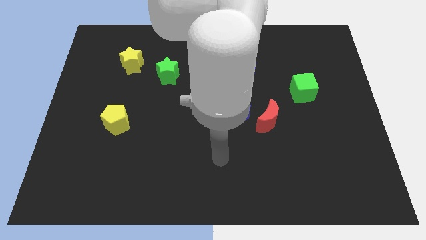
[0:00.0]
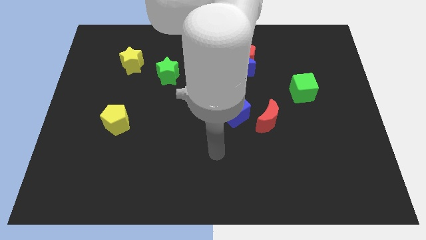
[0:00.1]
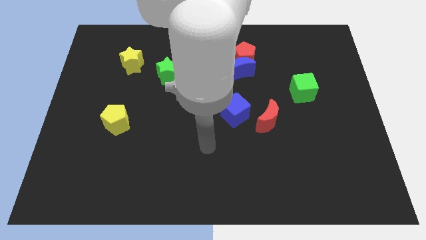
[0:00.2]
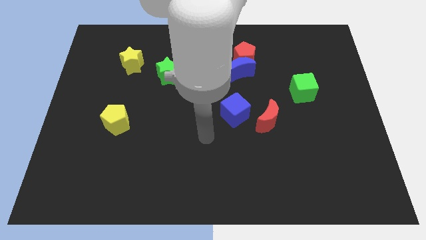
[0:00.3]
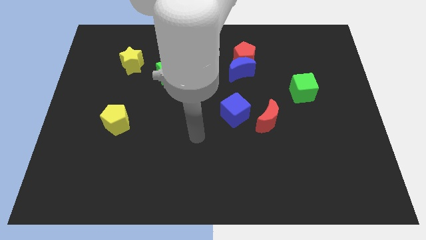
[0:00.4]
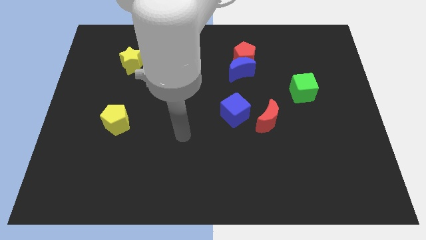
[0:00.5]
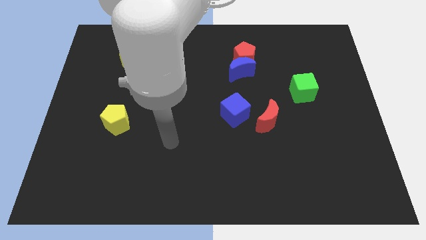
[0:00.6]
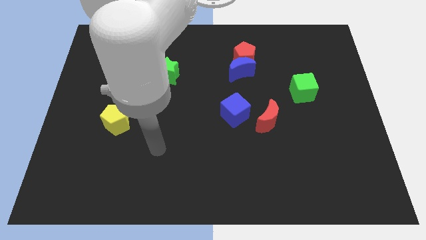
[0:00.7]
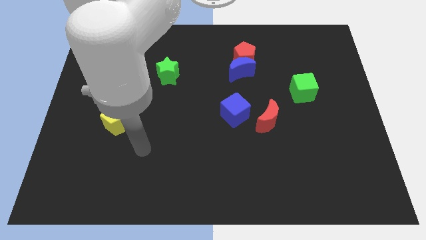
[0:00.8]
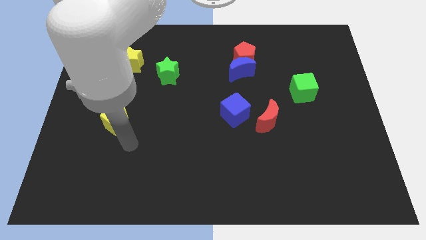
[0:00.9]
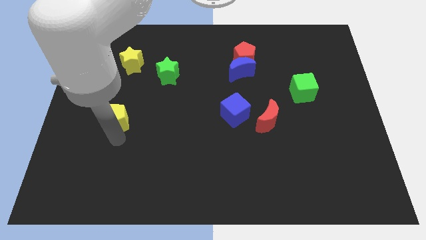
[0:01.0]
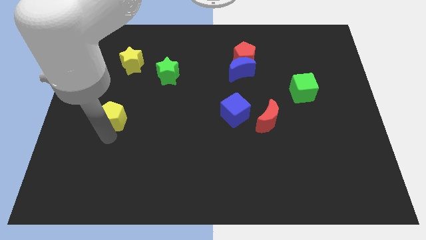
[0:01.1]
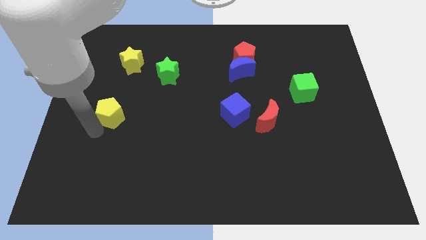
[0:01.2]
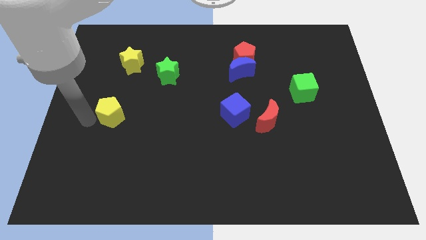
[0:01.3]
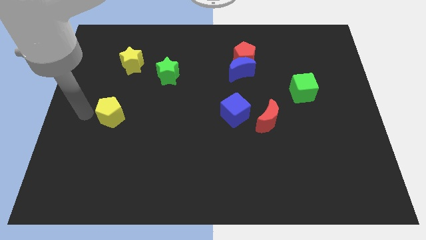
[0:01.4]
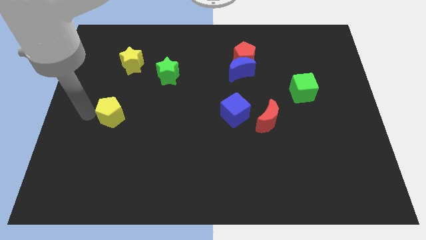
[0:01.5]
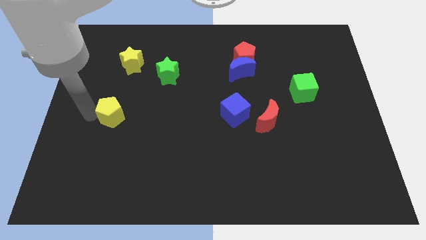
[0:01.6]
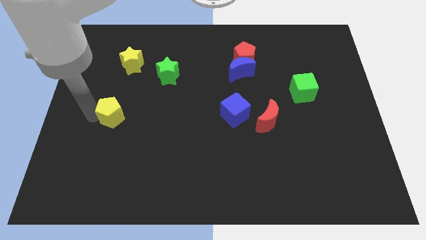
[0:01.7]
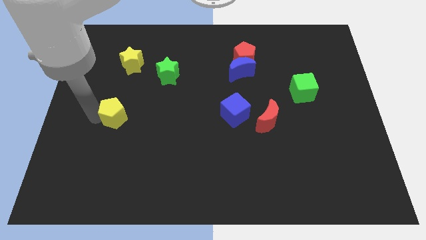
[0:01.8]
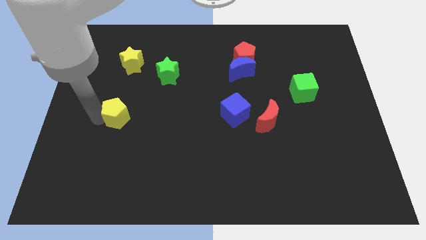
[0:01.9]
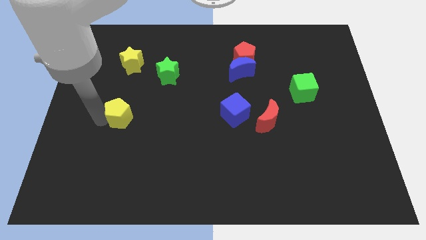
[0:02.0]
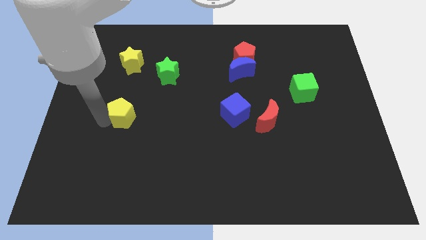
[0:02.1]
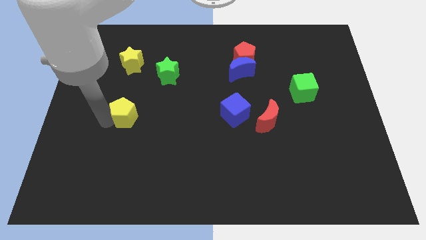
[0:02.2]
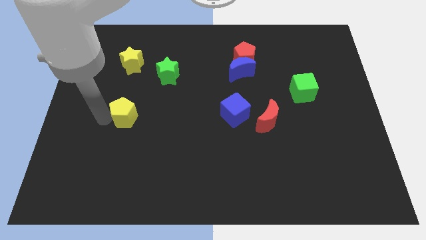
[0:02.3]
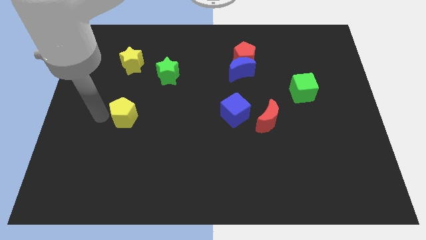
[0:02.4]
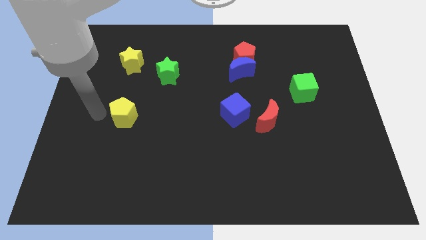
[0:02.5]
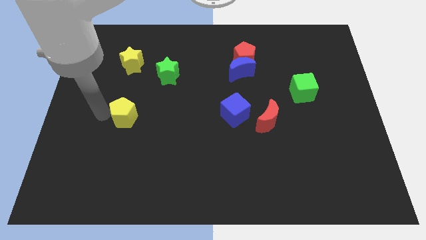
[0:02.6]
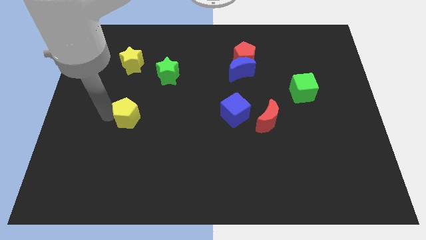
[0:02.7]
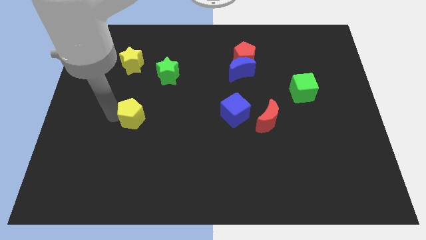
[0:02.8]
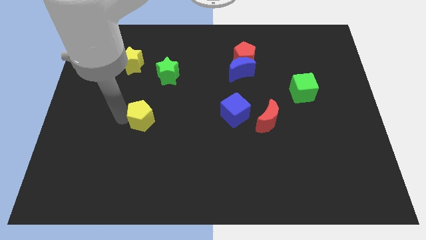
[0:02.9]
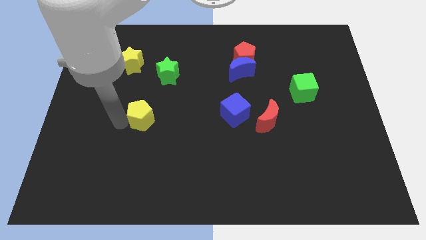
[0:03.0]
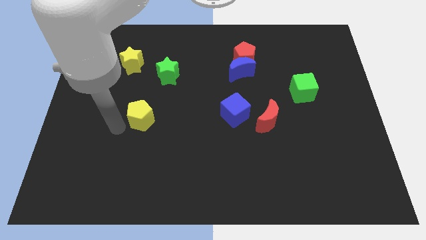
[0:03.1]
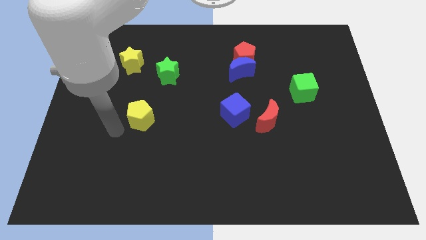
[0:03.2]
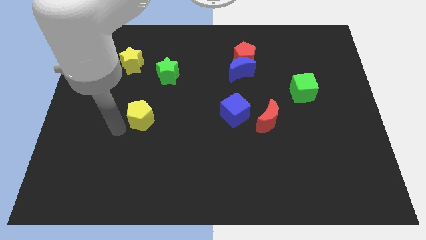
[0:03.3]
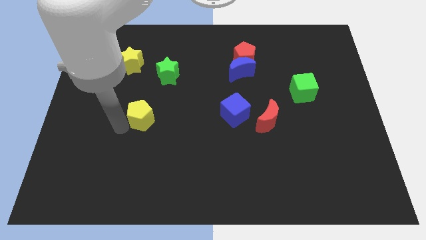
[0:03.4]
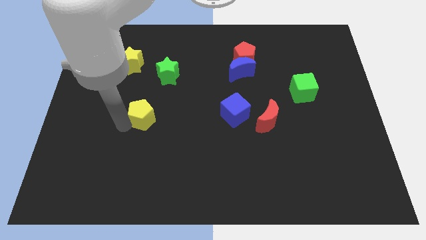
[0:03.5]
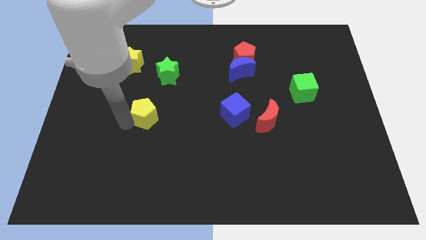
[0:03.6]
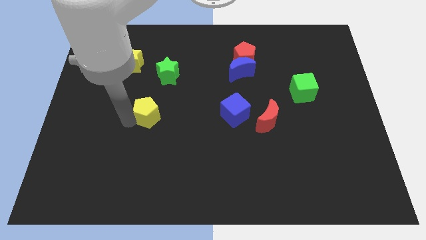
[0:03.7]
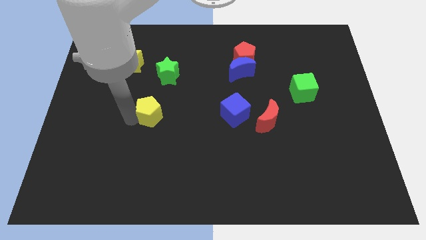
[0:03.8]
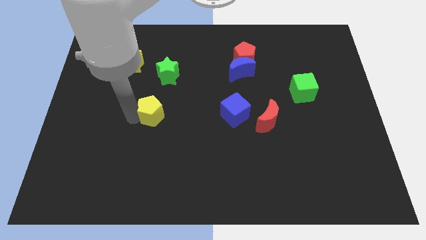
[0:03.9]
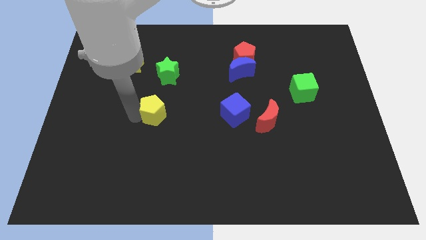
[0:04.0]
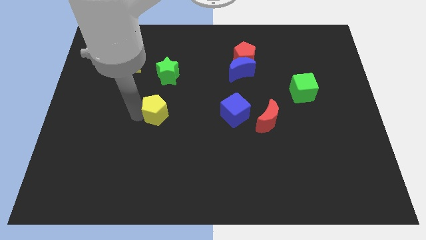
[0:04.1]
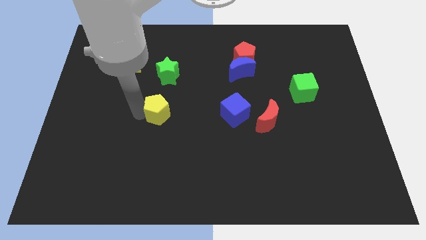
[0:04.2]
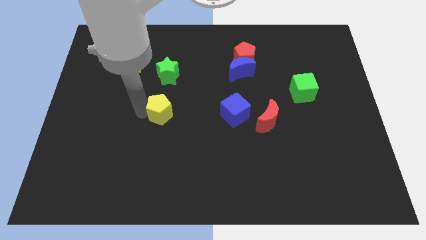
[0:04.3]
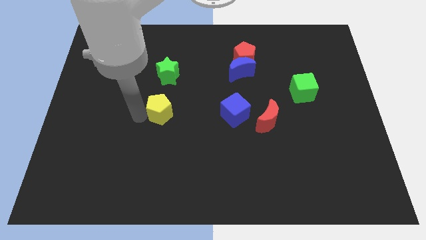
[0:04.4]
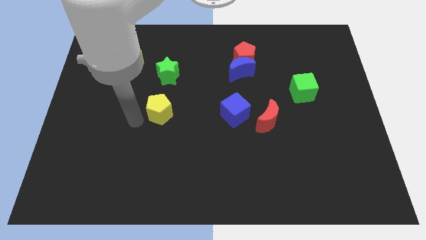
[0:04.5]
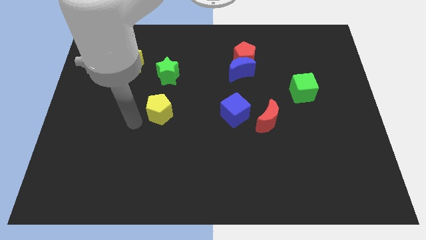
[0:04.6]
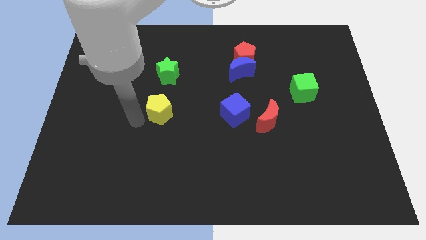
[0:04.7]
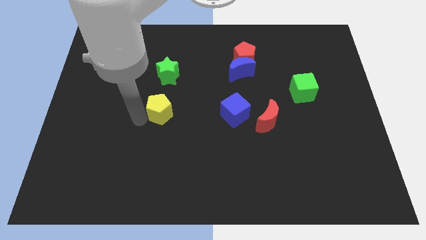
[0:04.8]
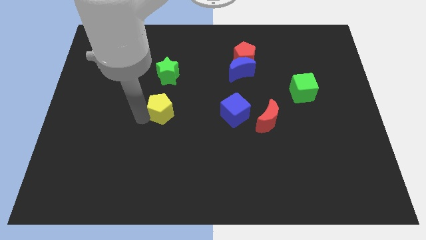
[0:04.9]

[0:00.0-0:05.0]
push the yellow pentagon to the middle

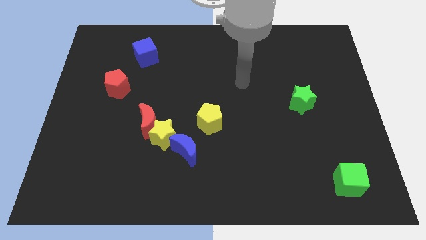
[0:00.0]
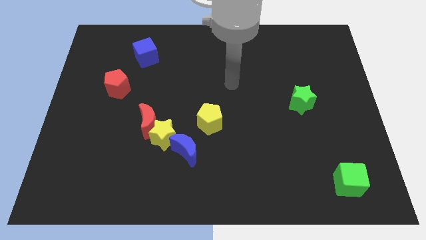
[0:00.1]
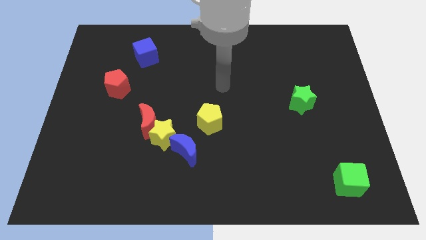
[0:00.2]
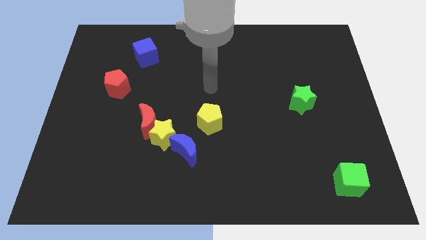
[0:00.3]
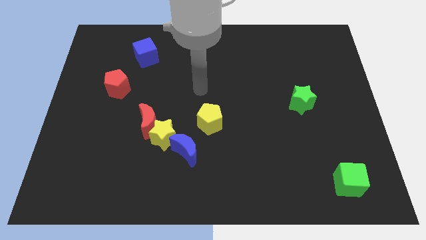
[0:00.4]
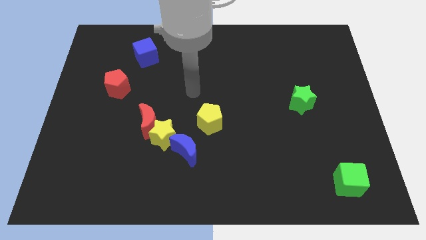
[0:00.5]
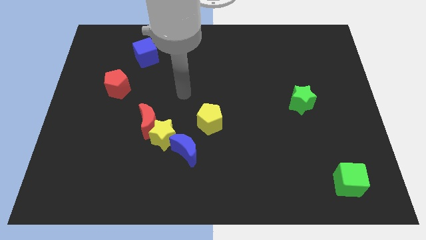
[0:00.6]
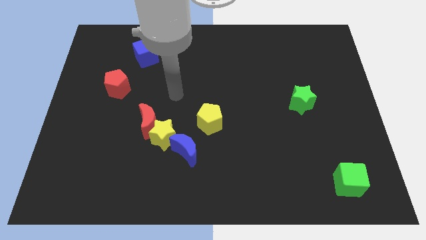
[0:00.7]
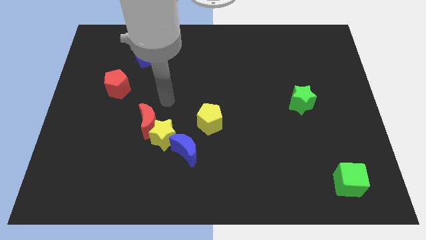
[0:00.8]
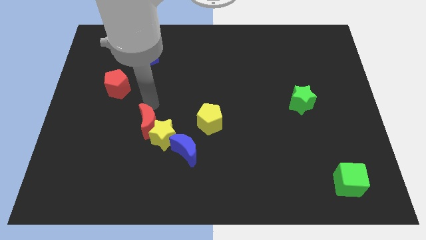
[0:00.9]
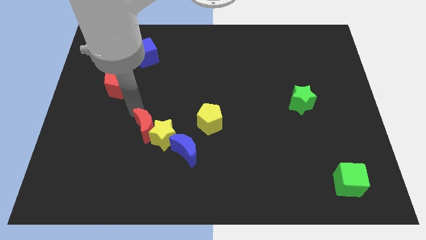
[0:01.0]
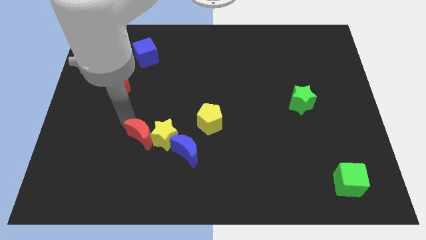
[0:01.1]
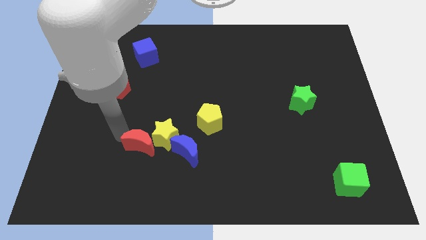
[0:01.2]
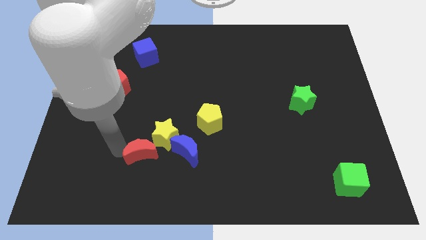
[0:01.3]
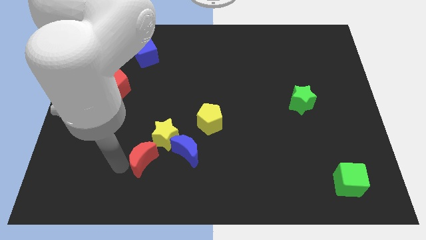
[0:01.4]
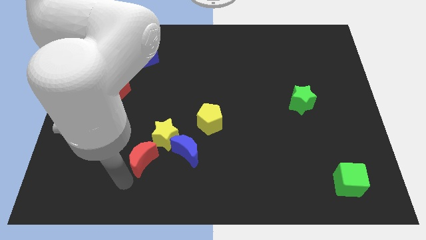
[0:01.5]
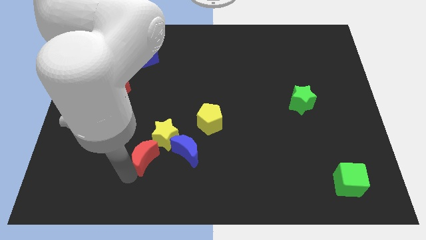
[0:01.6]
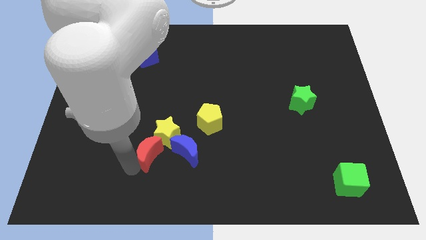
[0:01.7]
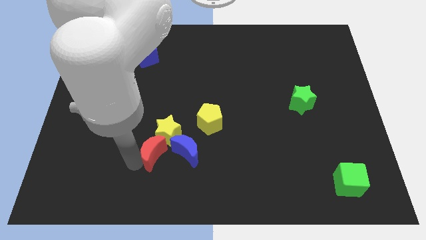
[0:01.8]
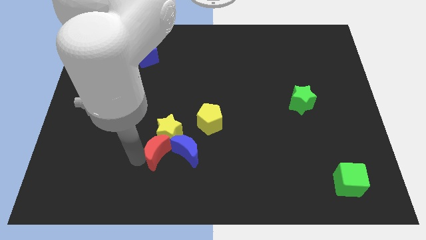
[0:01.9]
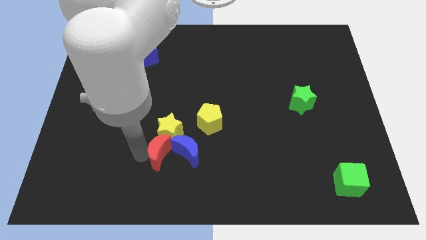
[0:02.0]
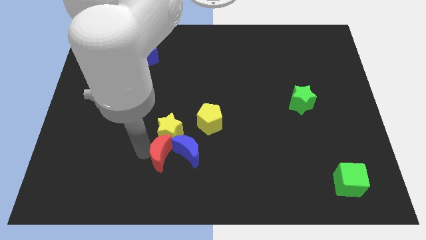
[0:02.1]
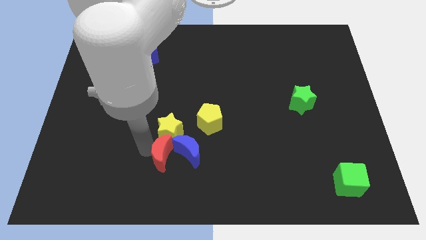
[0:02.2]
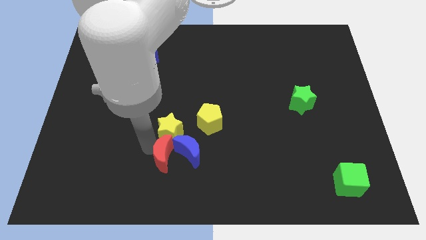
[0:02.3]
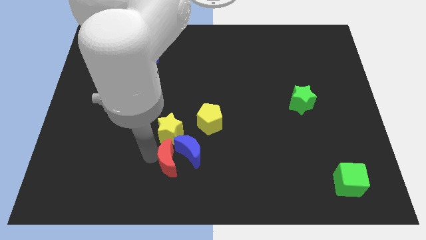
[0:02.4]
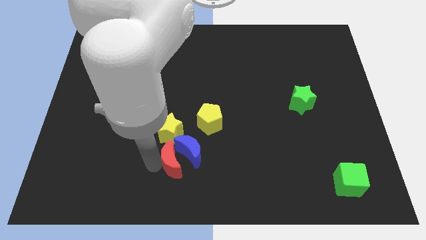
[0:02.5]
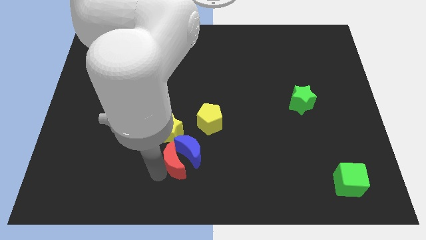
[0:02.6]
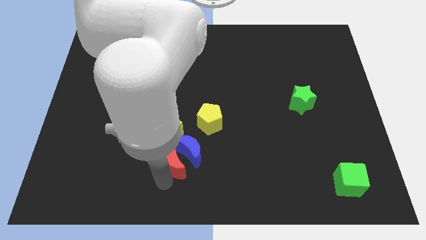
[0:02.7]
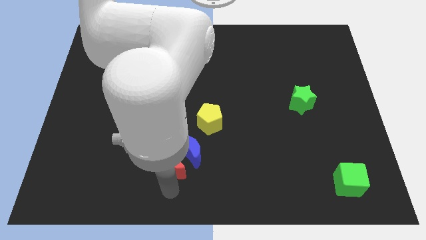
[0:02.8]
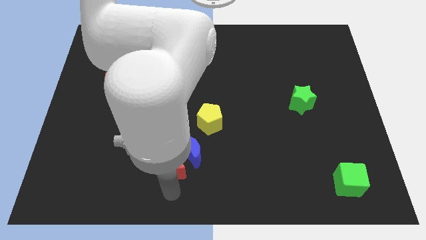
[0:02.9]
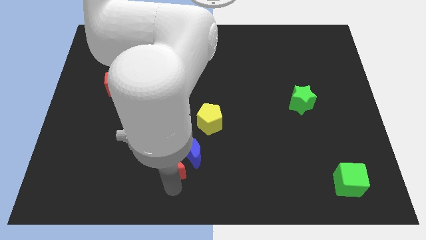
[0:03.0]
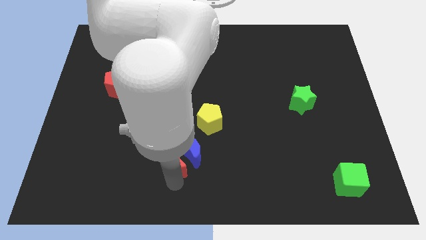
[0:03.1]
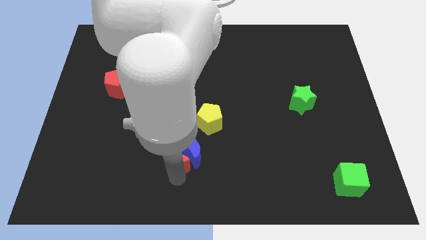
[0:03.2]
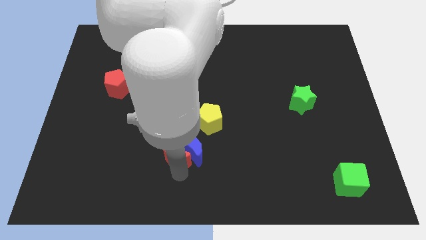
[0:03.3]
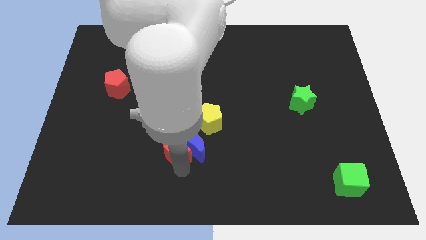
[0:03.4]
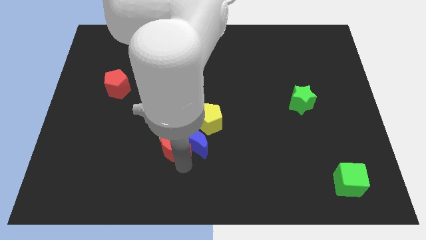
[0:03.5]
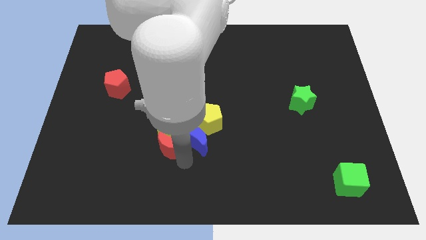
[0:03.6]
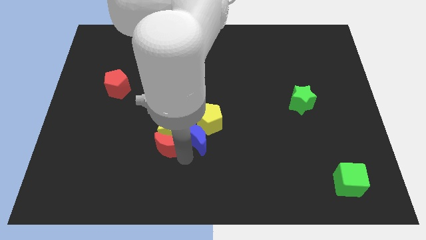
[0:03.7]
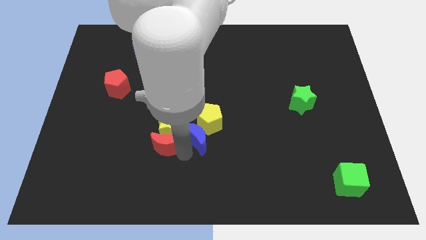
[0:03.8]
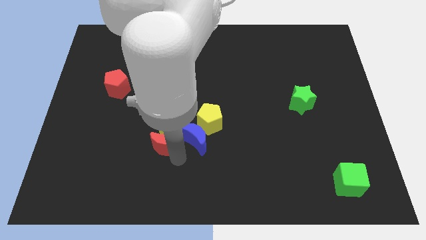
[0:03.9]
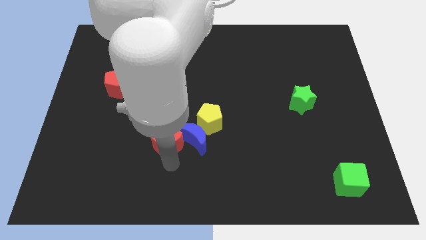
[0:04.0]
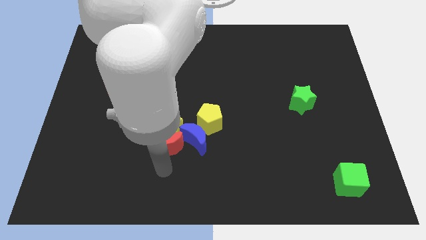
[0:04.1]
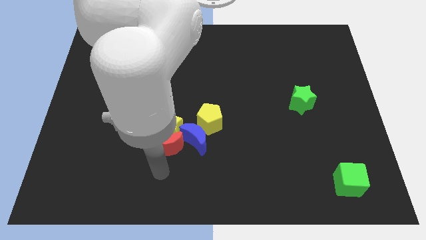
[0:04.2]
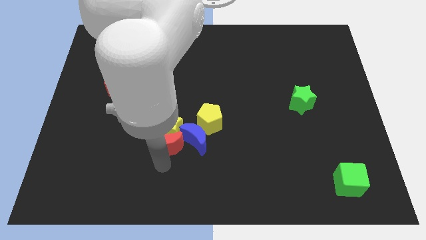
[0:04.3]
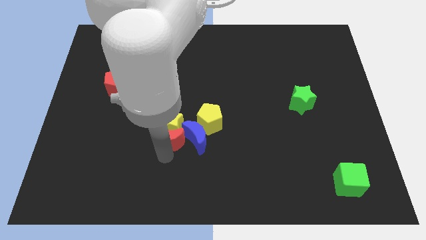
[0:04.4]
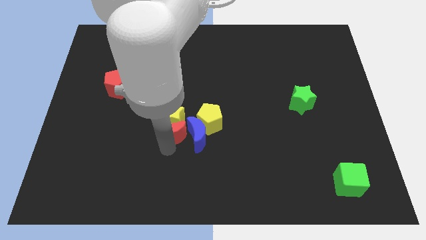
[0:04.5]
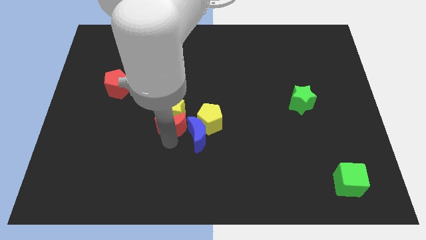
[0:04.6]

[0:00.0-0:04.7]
put the red moon to the center
